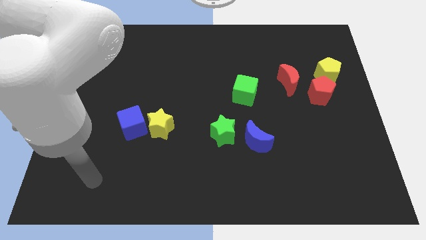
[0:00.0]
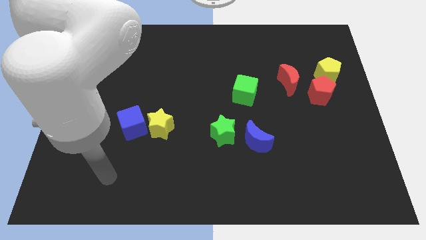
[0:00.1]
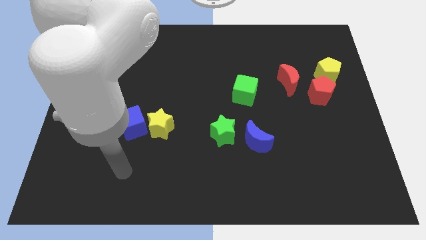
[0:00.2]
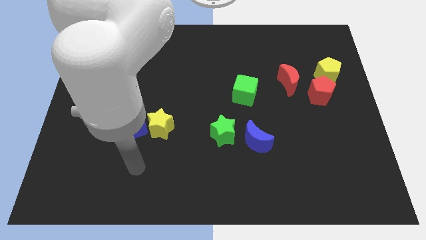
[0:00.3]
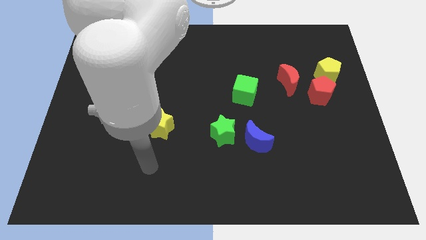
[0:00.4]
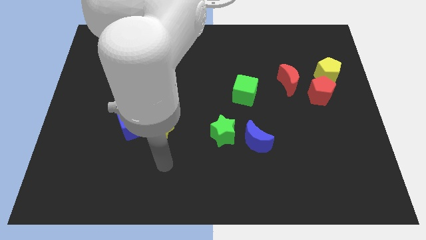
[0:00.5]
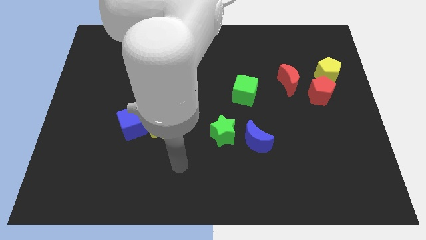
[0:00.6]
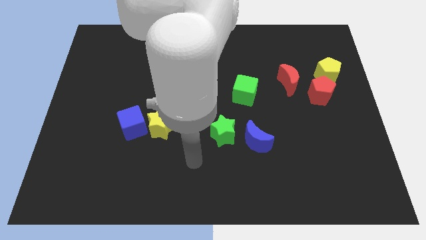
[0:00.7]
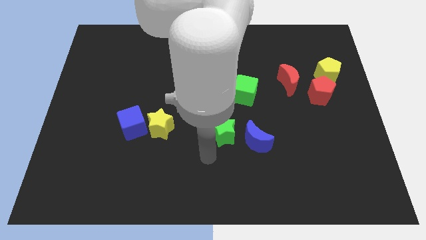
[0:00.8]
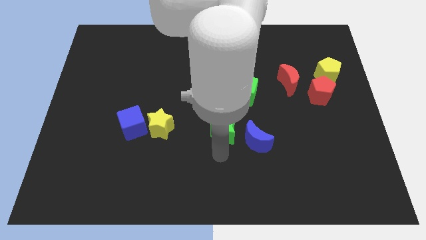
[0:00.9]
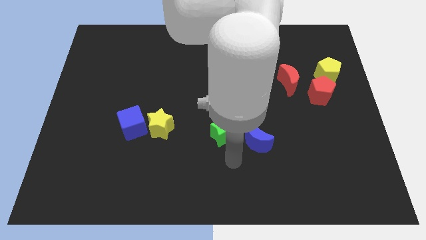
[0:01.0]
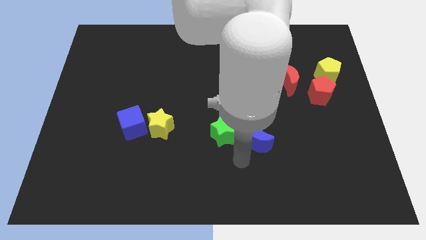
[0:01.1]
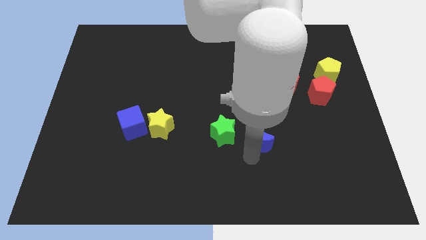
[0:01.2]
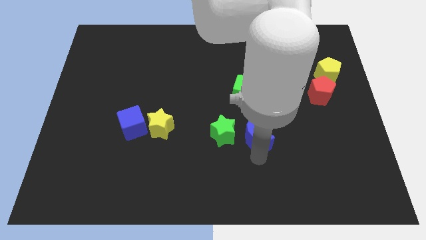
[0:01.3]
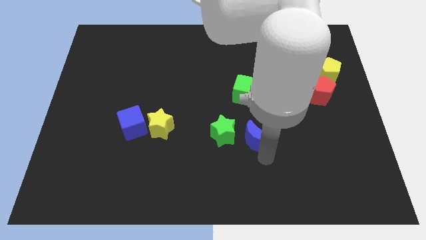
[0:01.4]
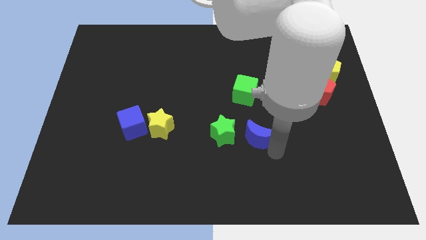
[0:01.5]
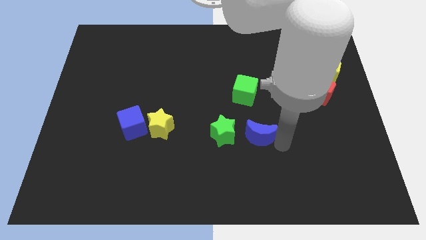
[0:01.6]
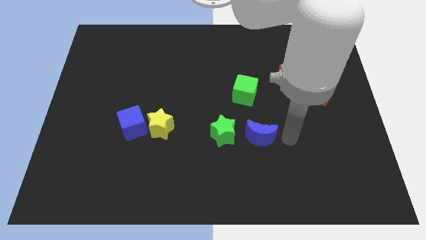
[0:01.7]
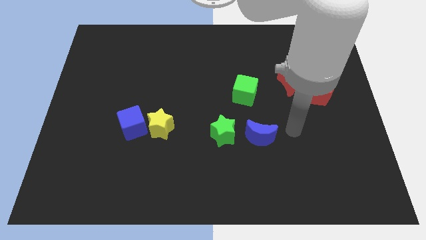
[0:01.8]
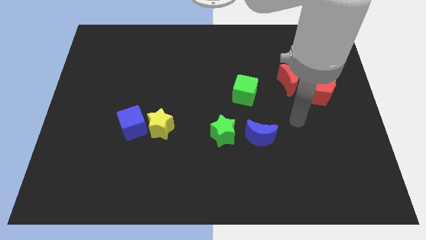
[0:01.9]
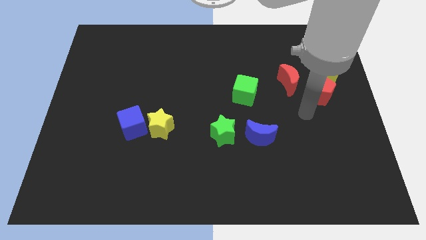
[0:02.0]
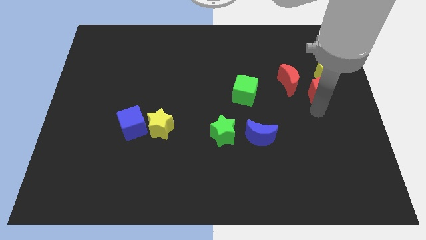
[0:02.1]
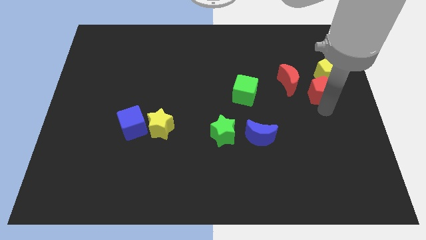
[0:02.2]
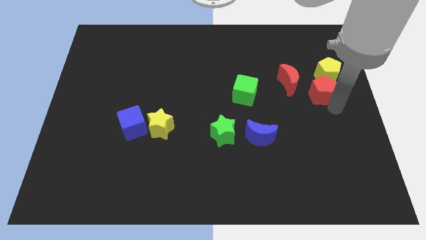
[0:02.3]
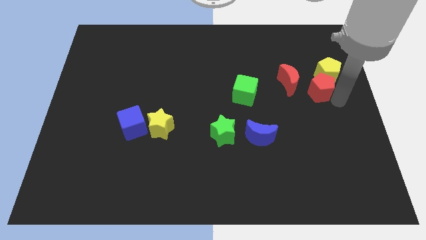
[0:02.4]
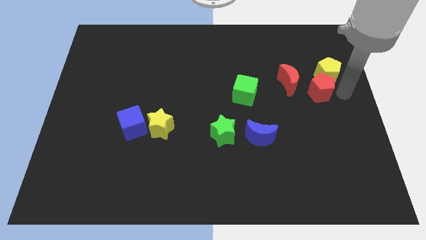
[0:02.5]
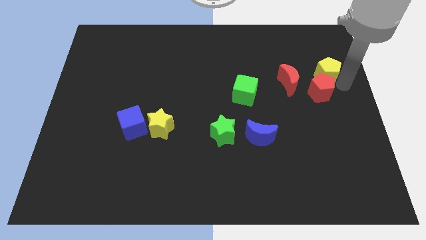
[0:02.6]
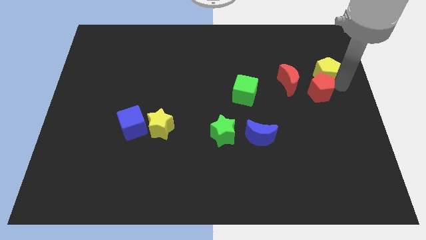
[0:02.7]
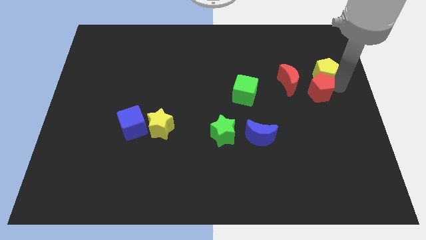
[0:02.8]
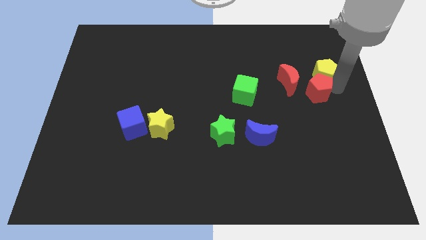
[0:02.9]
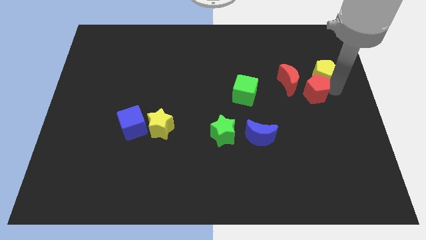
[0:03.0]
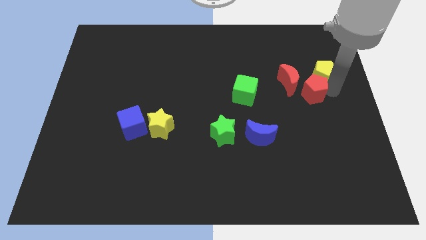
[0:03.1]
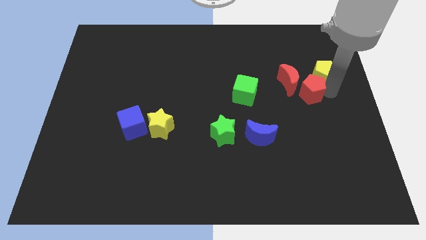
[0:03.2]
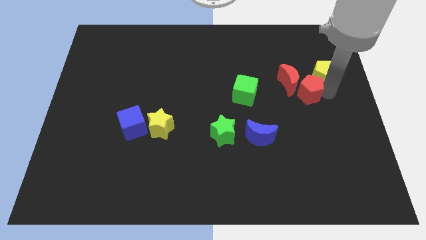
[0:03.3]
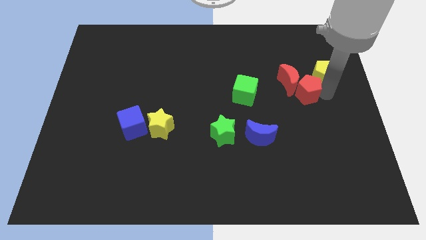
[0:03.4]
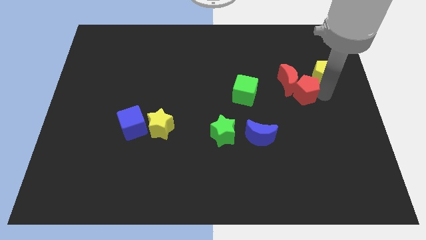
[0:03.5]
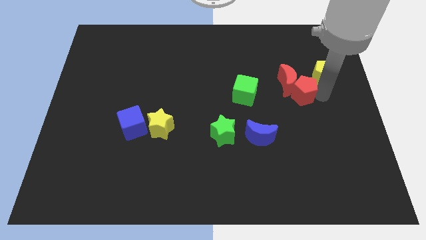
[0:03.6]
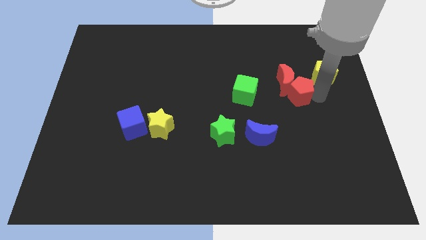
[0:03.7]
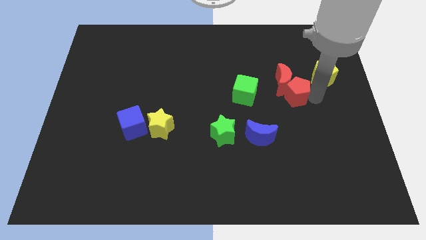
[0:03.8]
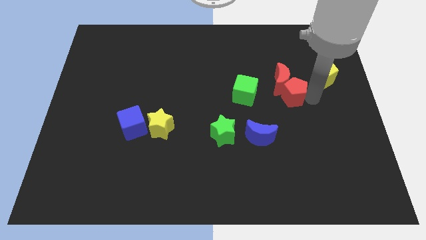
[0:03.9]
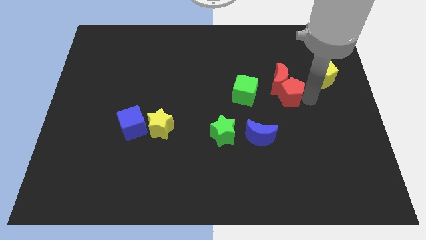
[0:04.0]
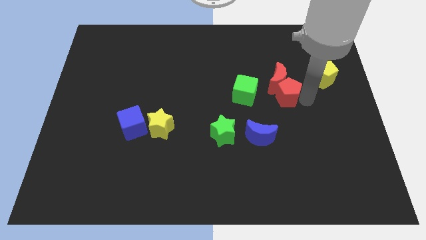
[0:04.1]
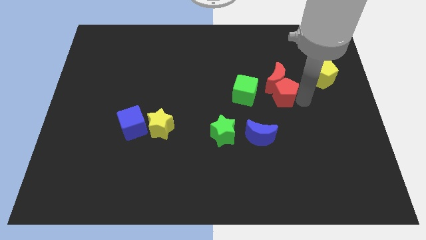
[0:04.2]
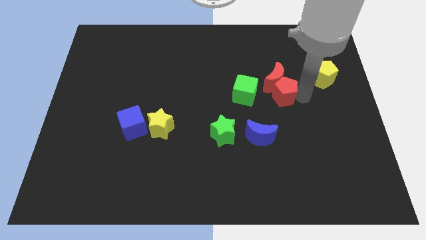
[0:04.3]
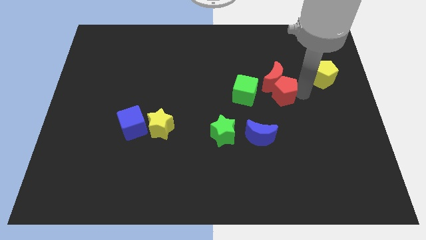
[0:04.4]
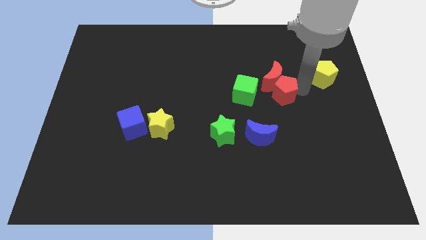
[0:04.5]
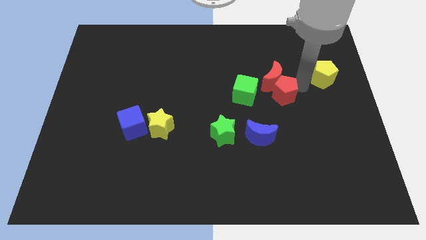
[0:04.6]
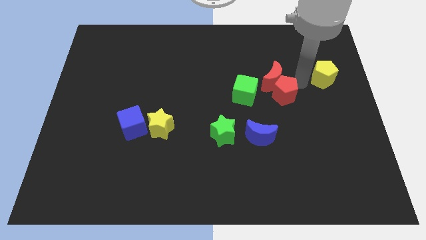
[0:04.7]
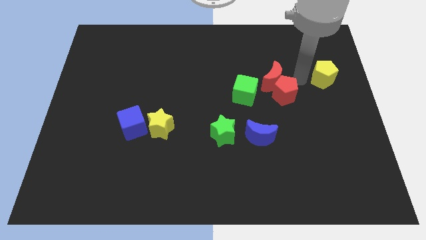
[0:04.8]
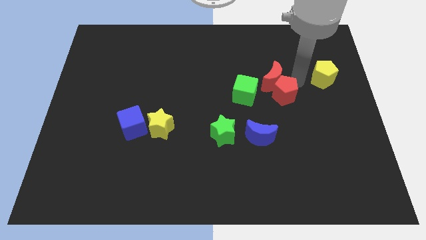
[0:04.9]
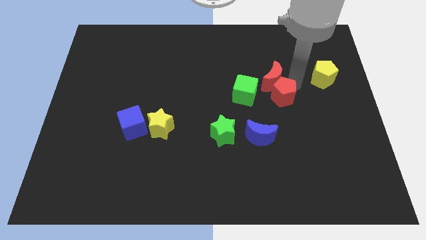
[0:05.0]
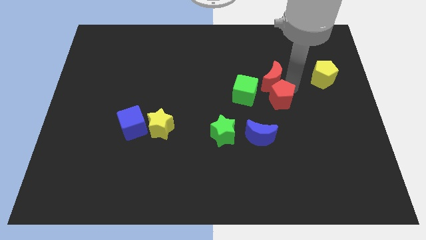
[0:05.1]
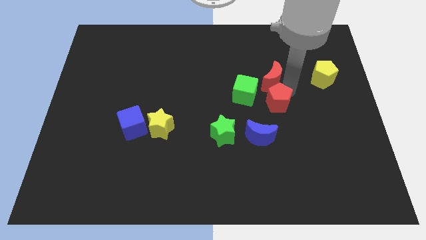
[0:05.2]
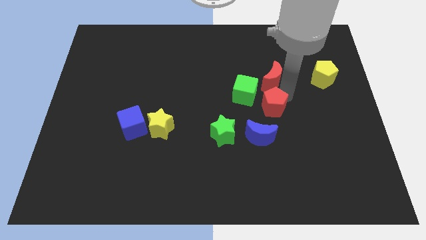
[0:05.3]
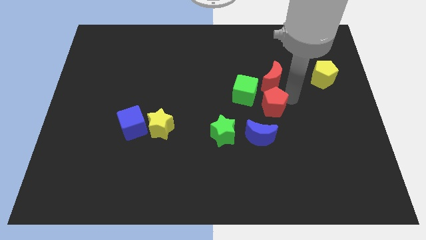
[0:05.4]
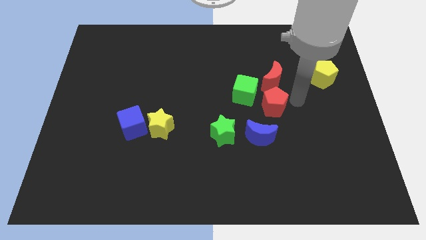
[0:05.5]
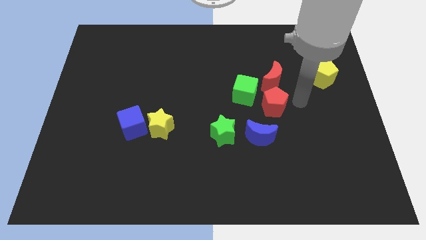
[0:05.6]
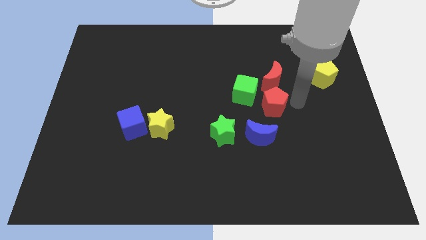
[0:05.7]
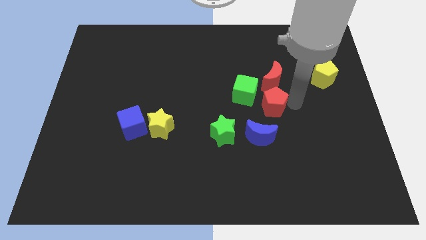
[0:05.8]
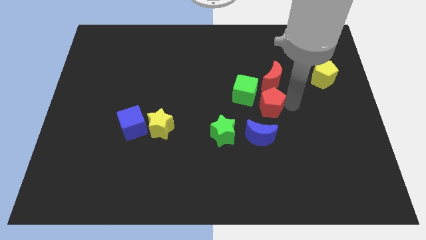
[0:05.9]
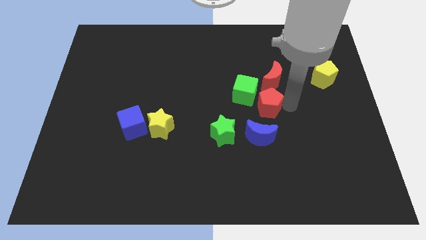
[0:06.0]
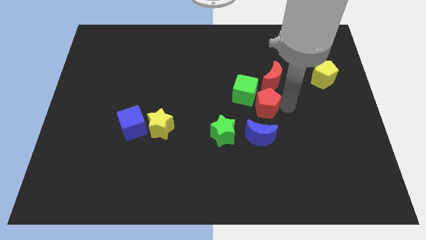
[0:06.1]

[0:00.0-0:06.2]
push the red pentagon to the middle

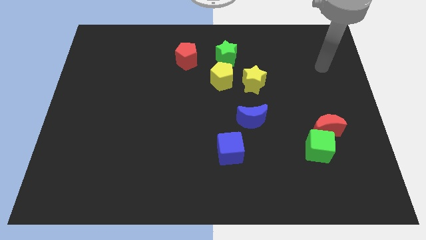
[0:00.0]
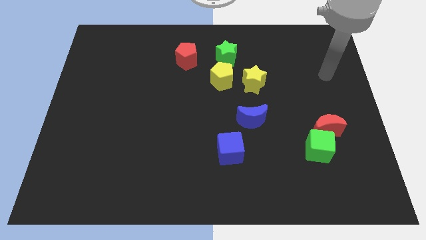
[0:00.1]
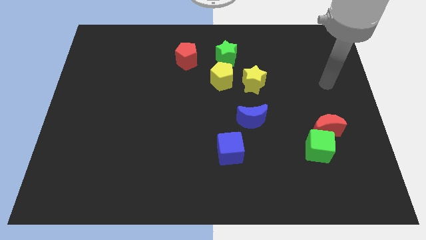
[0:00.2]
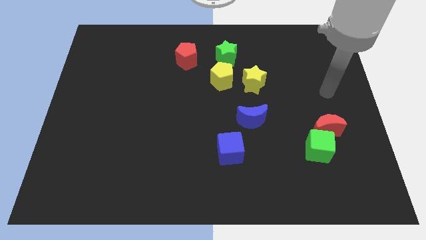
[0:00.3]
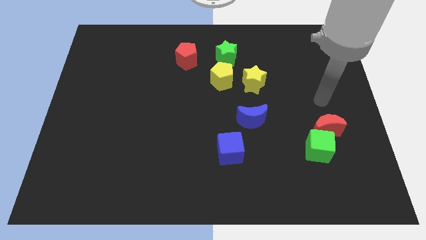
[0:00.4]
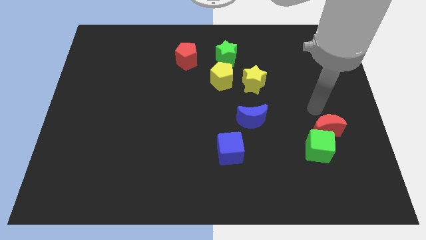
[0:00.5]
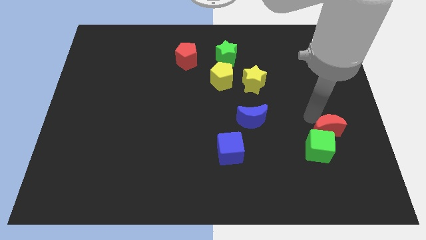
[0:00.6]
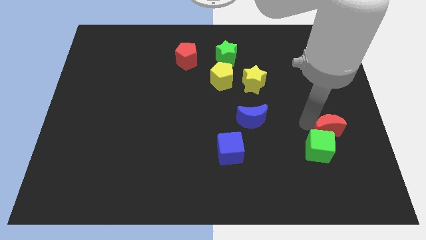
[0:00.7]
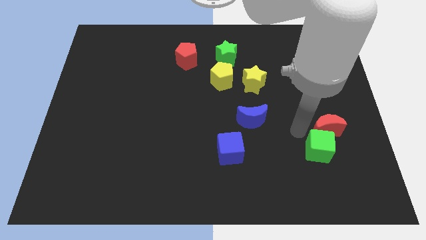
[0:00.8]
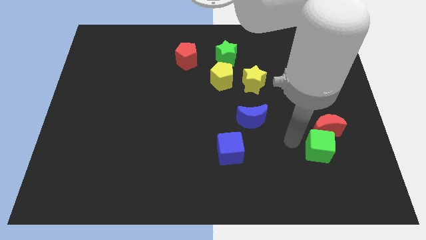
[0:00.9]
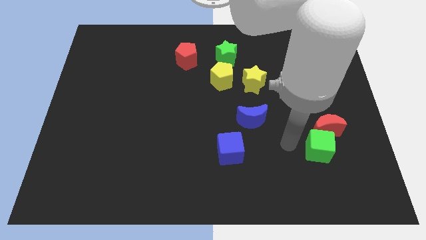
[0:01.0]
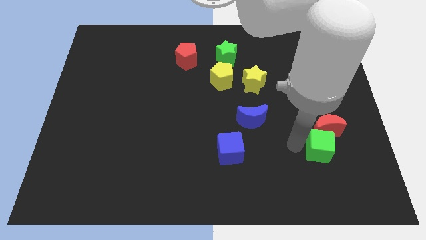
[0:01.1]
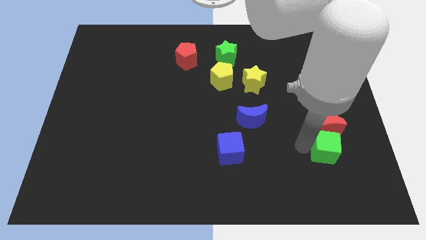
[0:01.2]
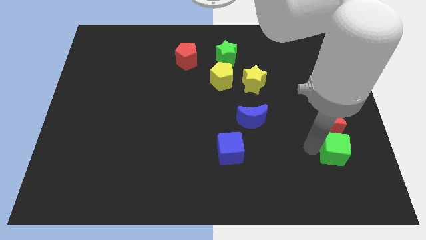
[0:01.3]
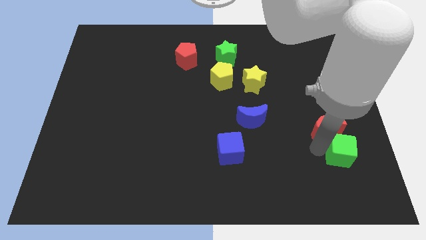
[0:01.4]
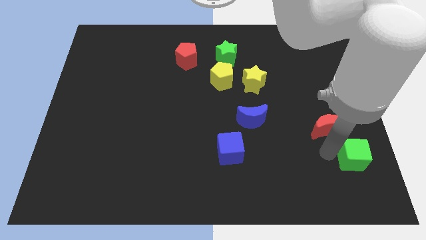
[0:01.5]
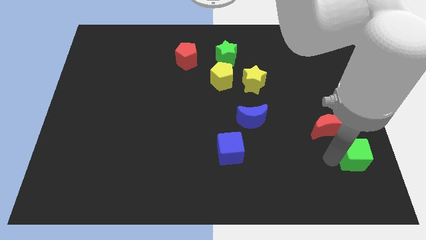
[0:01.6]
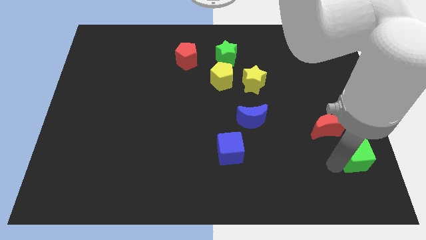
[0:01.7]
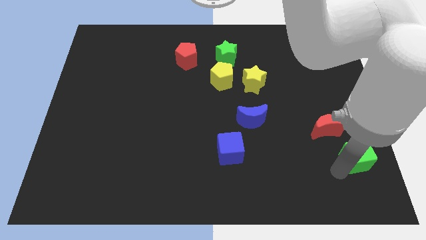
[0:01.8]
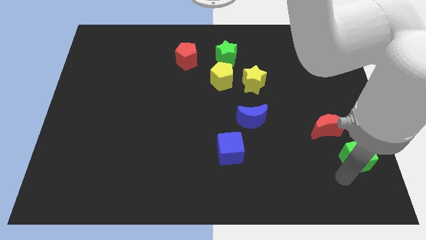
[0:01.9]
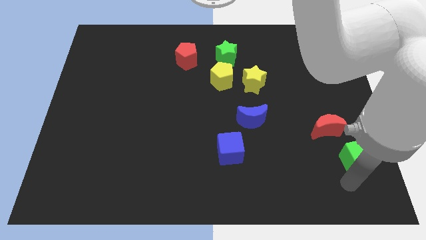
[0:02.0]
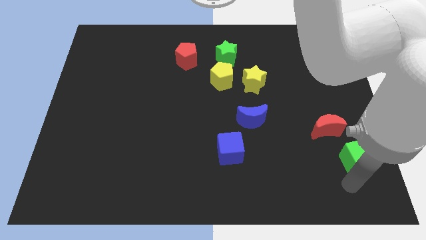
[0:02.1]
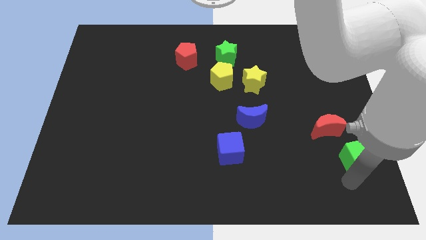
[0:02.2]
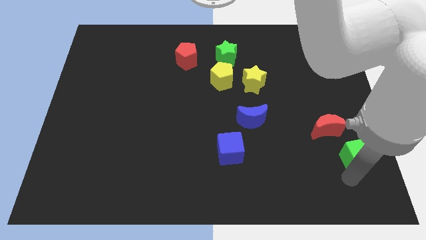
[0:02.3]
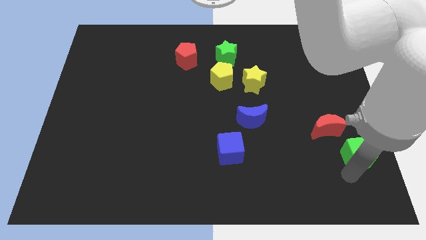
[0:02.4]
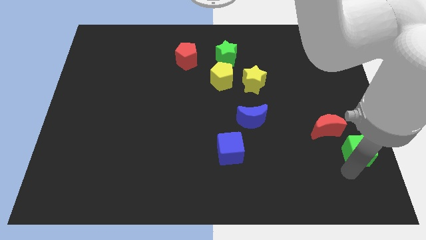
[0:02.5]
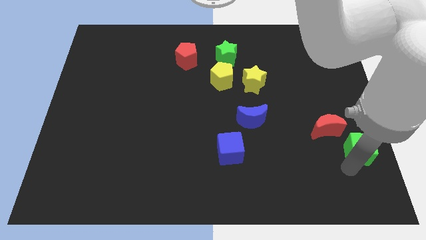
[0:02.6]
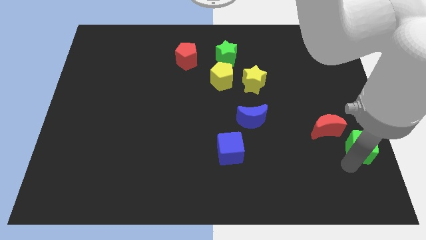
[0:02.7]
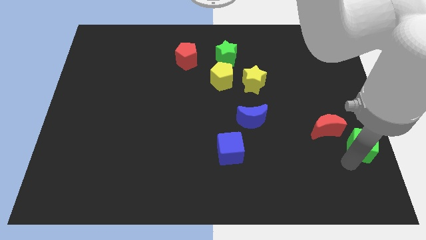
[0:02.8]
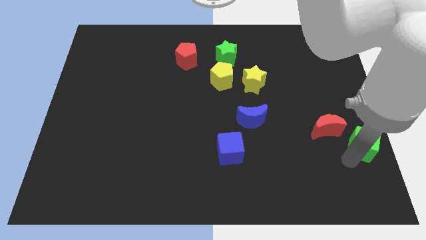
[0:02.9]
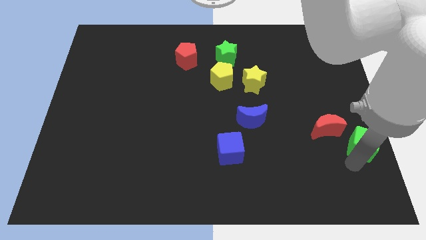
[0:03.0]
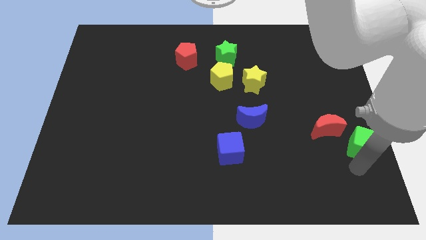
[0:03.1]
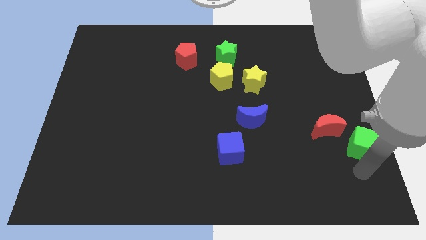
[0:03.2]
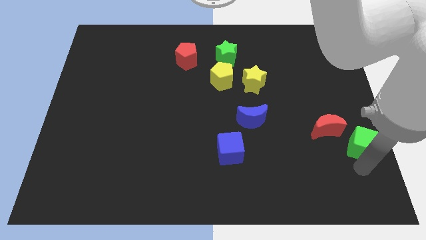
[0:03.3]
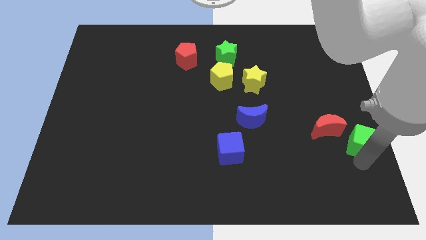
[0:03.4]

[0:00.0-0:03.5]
put the green cube to the right side
